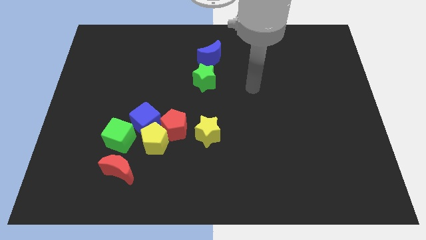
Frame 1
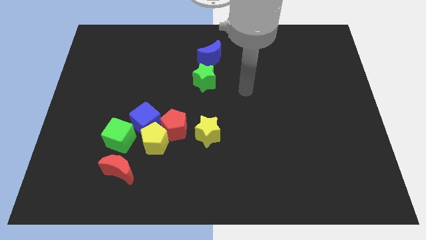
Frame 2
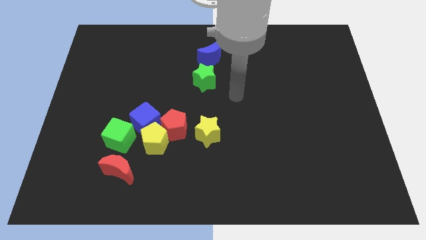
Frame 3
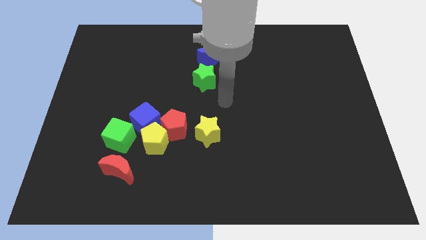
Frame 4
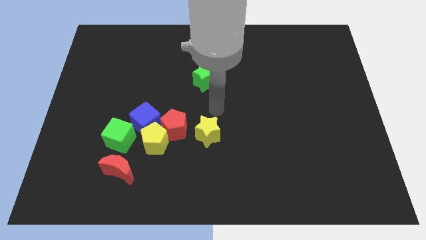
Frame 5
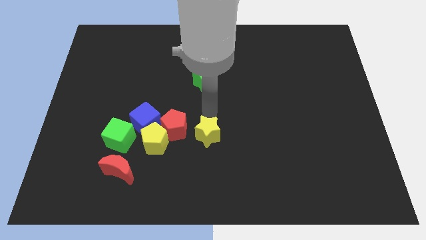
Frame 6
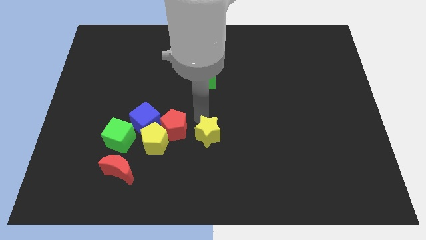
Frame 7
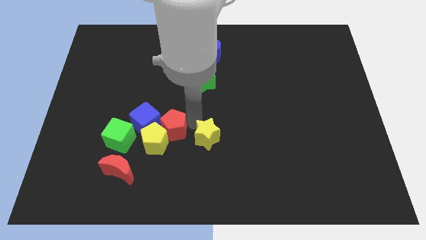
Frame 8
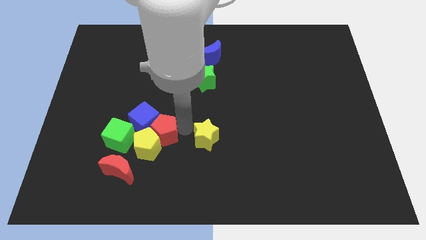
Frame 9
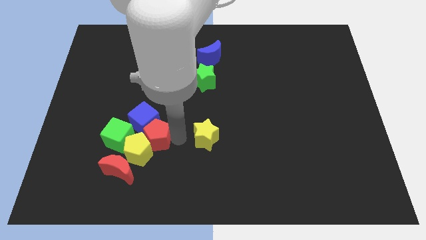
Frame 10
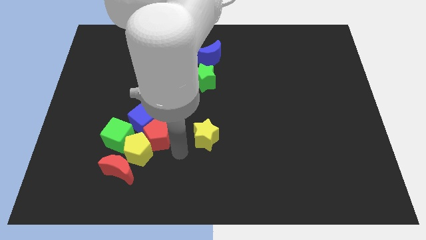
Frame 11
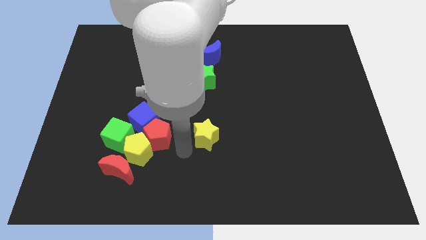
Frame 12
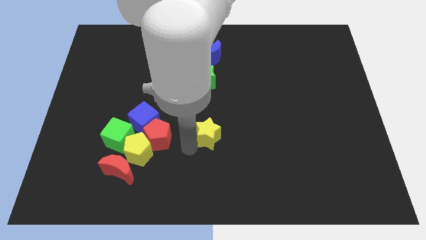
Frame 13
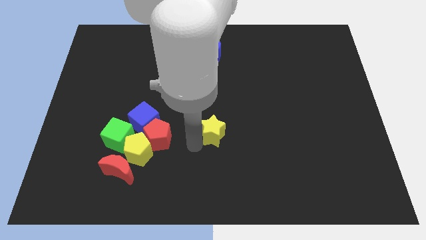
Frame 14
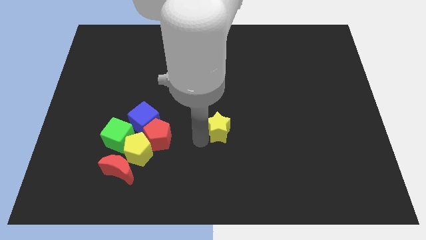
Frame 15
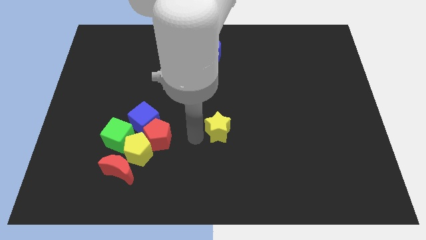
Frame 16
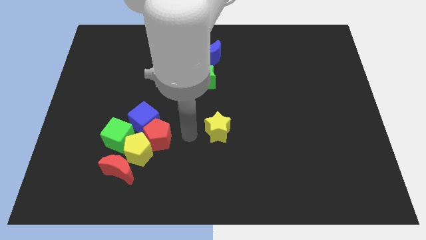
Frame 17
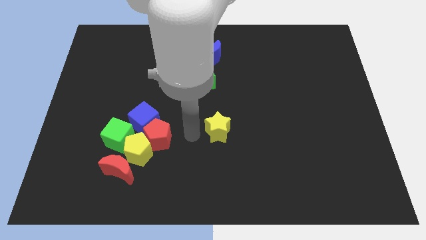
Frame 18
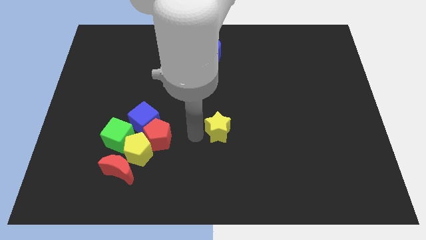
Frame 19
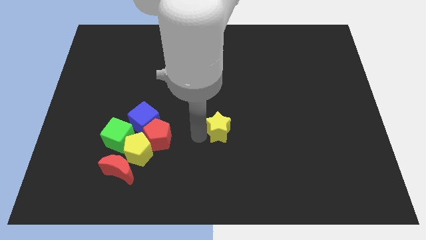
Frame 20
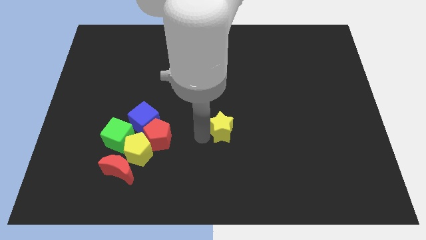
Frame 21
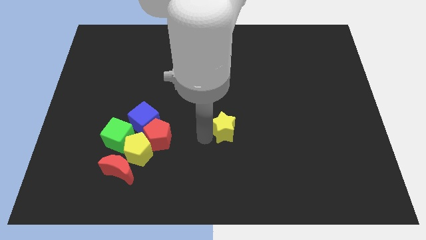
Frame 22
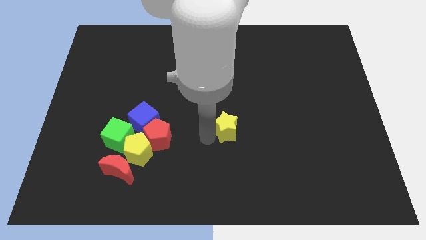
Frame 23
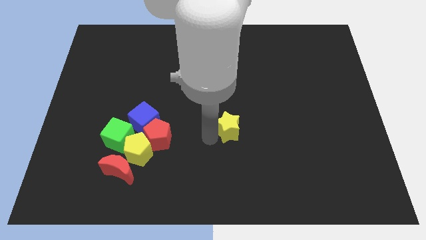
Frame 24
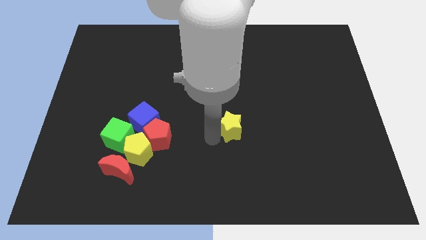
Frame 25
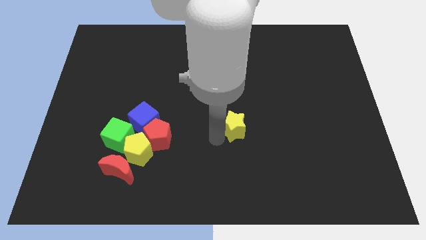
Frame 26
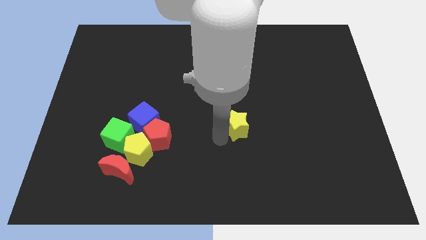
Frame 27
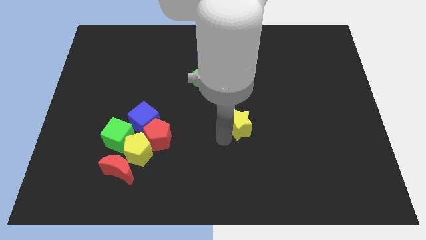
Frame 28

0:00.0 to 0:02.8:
slightly slide the yellow star right

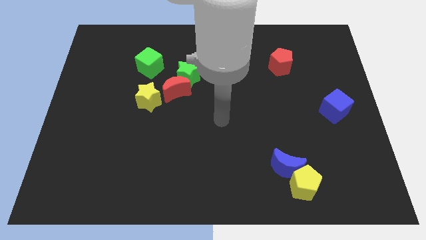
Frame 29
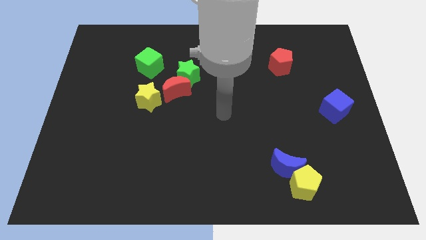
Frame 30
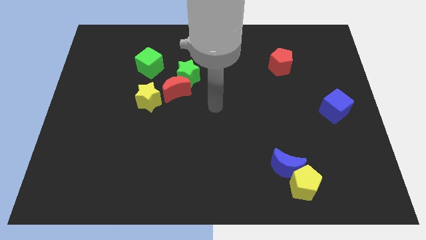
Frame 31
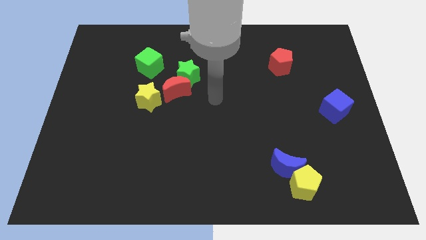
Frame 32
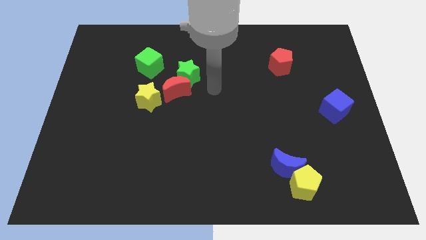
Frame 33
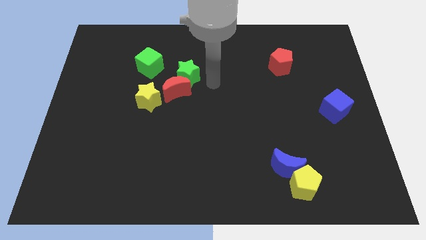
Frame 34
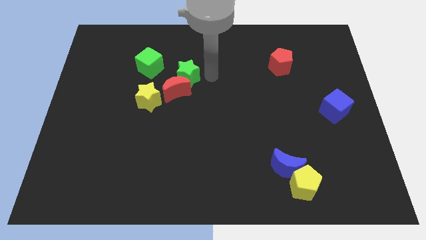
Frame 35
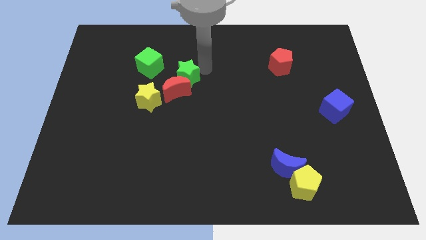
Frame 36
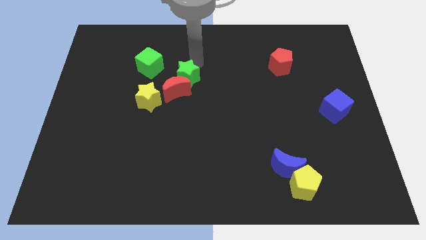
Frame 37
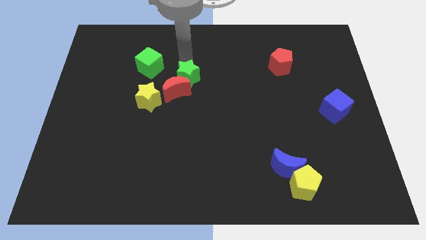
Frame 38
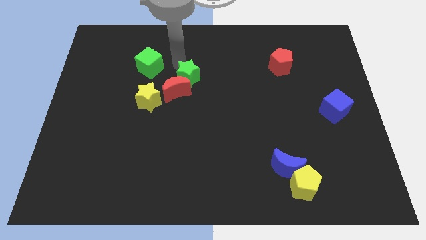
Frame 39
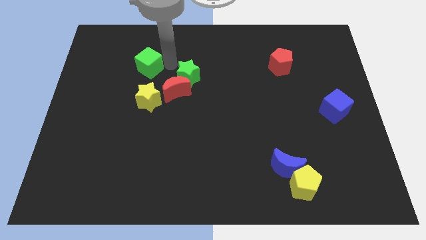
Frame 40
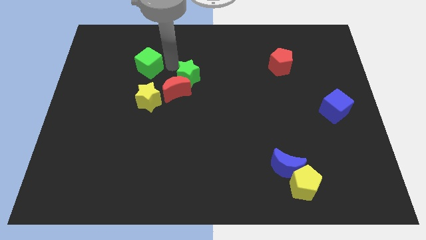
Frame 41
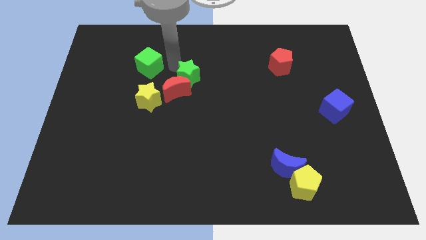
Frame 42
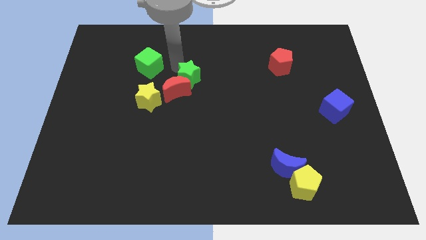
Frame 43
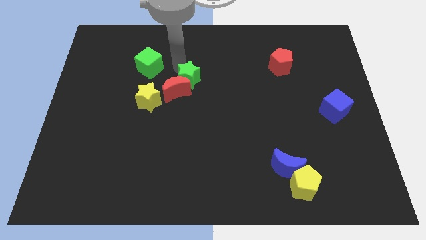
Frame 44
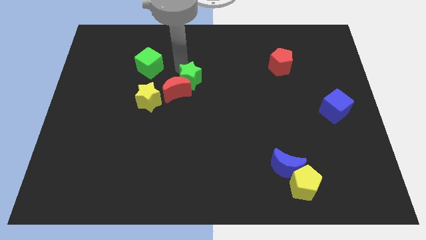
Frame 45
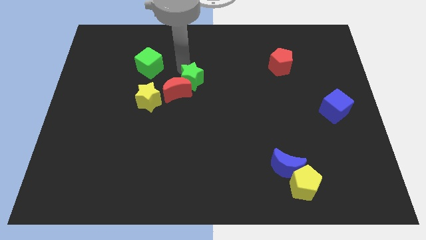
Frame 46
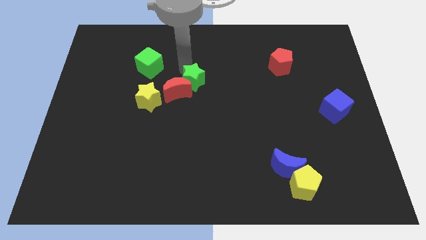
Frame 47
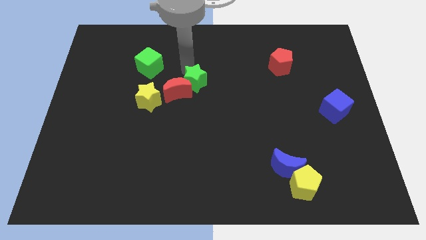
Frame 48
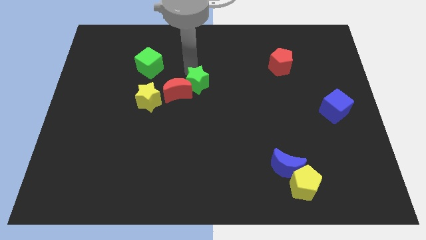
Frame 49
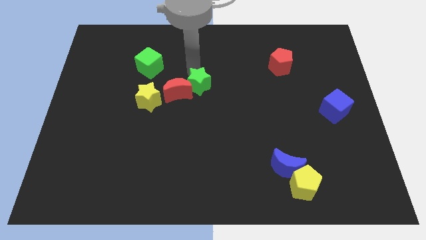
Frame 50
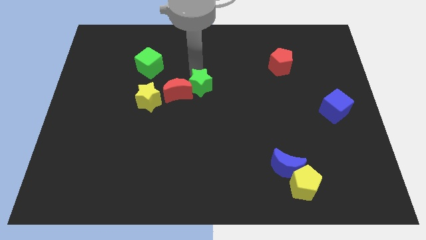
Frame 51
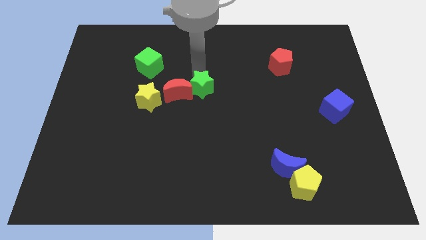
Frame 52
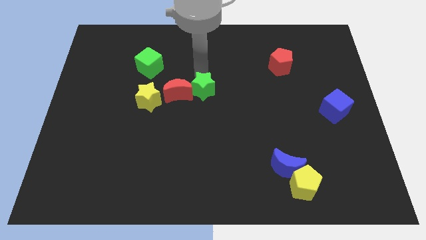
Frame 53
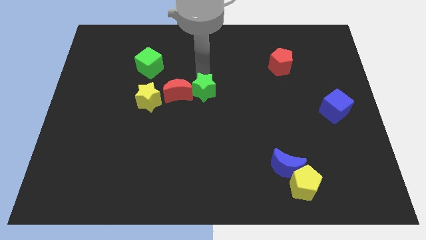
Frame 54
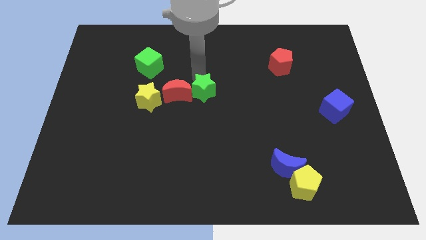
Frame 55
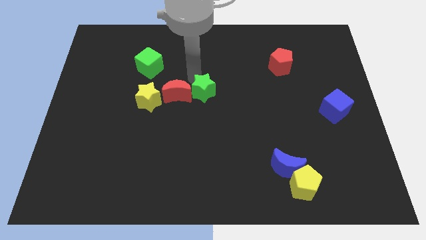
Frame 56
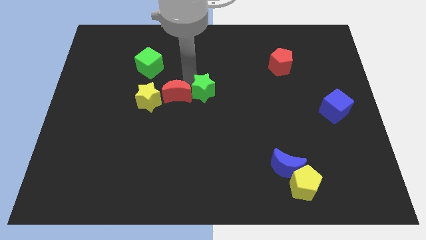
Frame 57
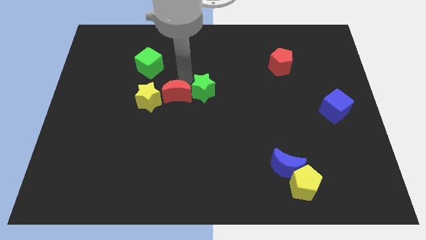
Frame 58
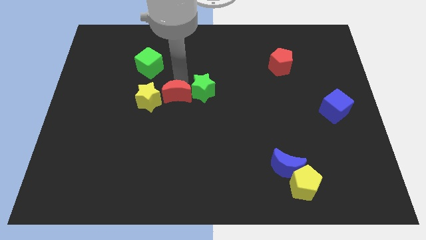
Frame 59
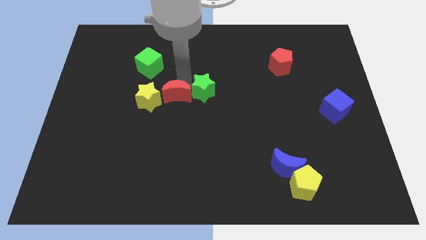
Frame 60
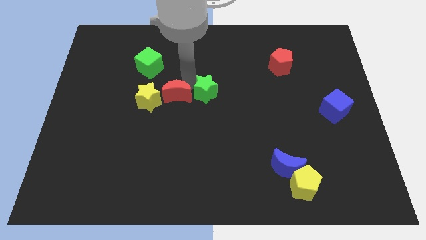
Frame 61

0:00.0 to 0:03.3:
push the green star a bit diagonally down and right

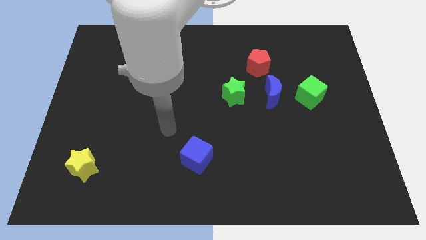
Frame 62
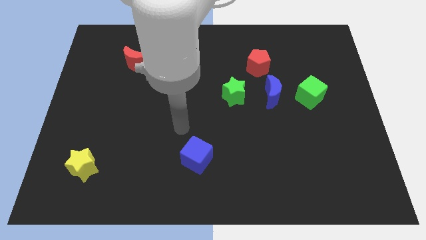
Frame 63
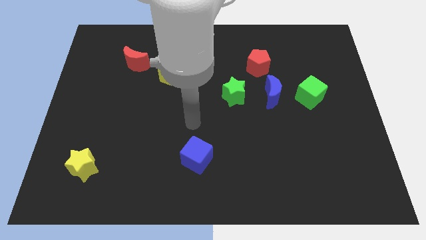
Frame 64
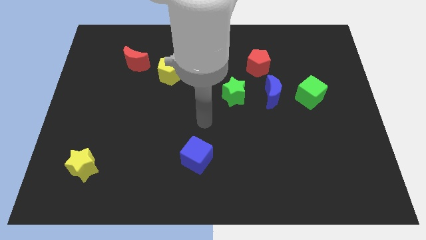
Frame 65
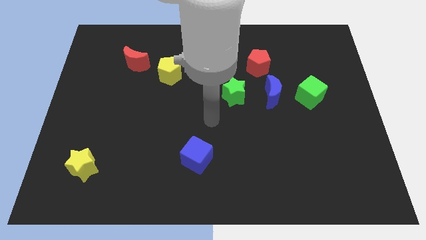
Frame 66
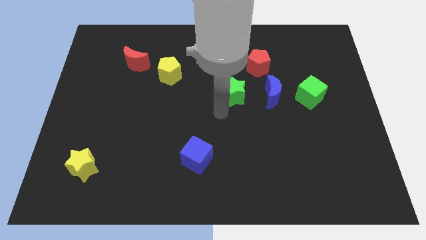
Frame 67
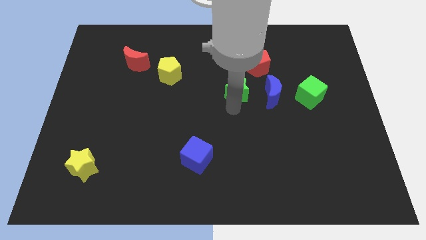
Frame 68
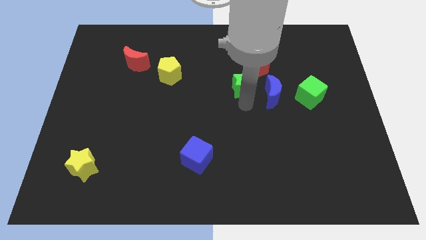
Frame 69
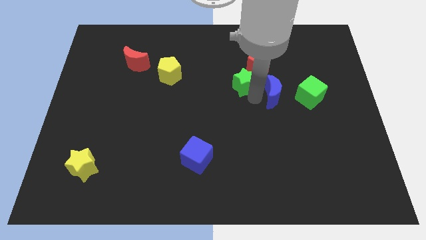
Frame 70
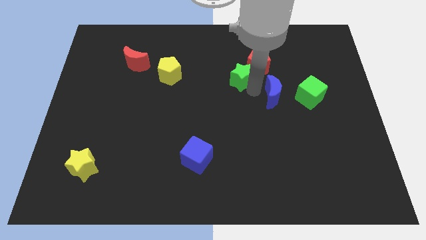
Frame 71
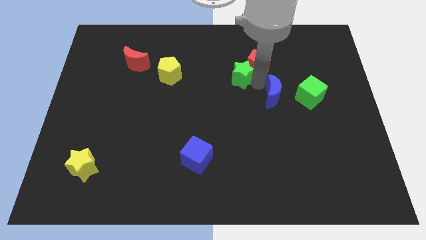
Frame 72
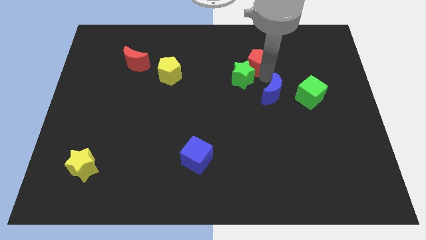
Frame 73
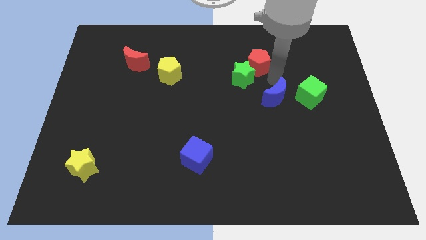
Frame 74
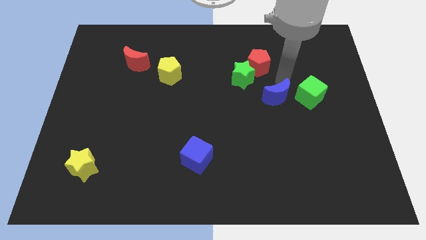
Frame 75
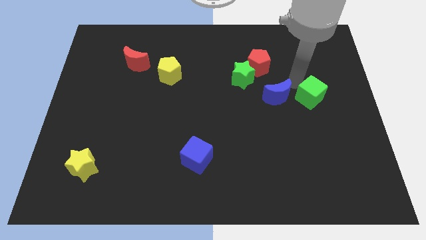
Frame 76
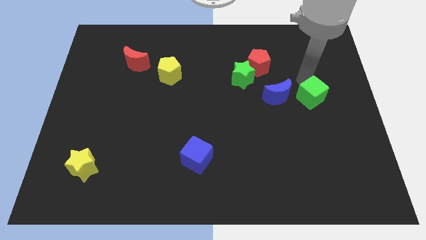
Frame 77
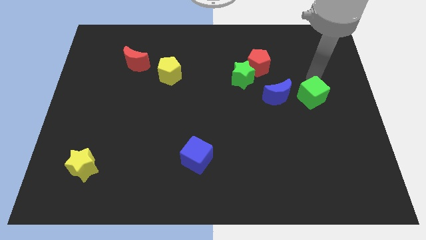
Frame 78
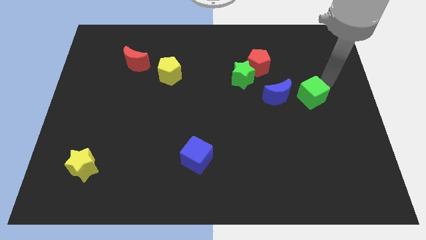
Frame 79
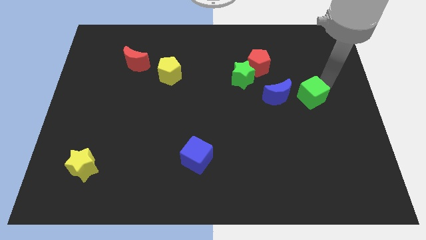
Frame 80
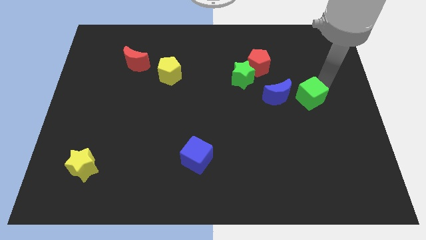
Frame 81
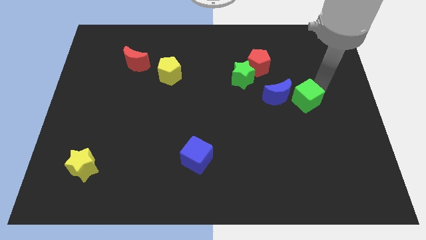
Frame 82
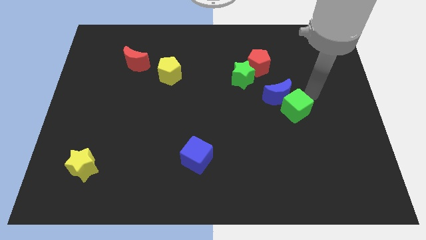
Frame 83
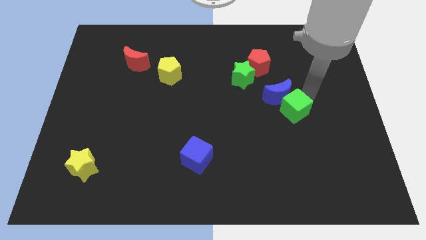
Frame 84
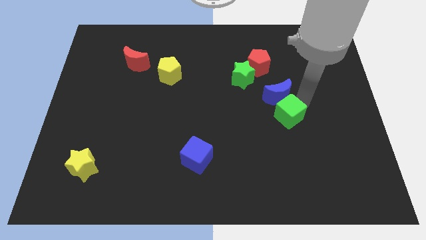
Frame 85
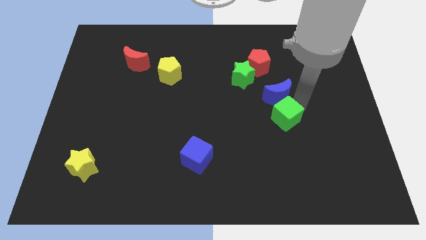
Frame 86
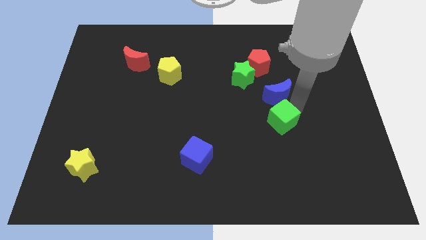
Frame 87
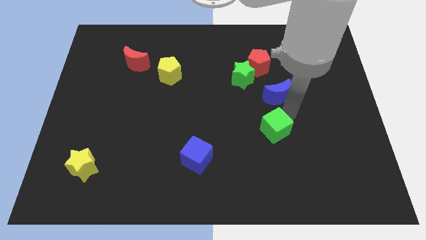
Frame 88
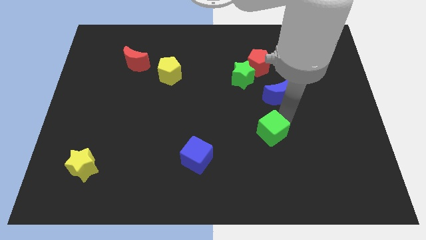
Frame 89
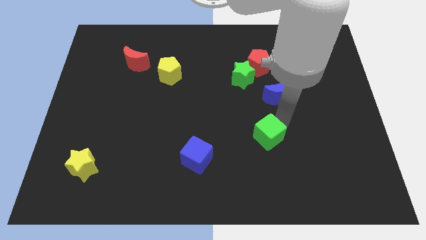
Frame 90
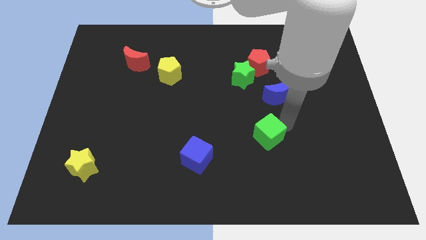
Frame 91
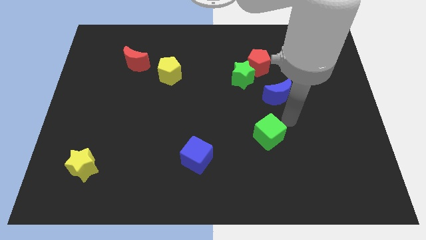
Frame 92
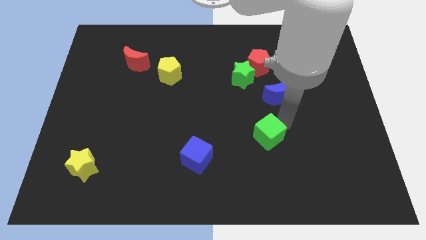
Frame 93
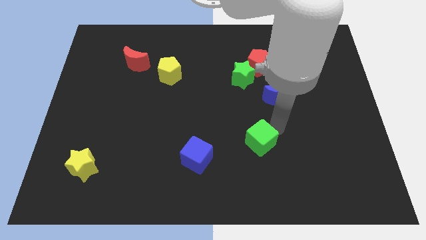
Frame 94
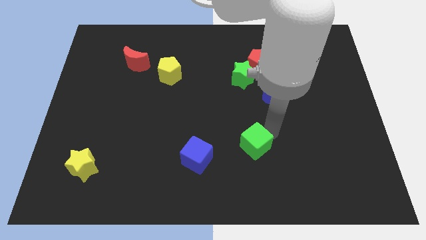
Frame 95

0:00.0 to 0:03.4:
push the green cube downwards and to the left
